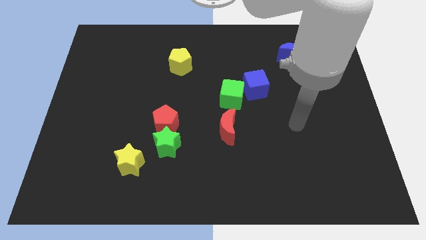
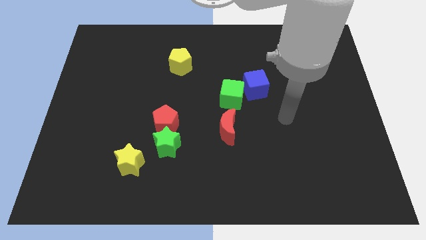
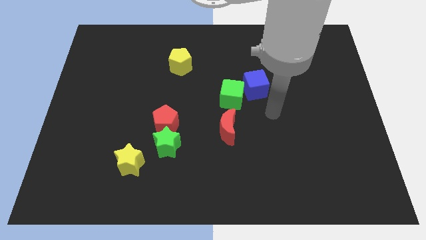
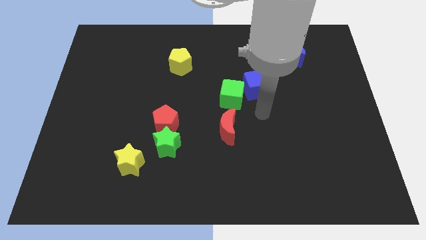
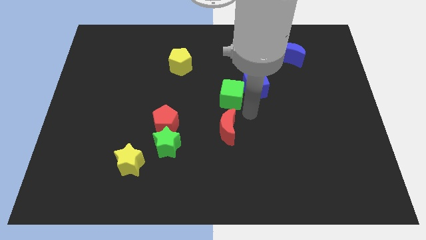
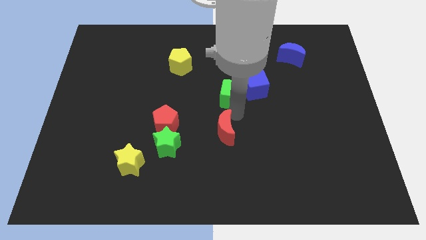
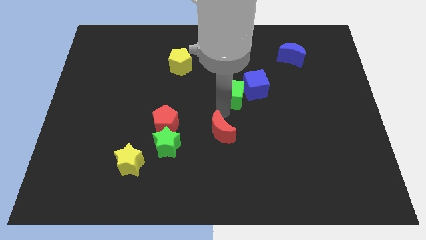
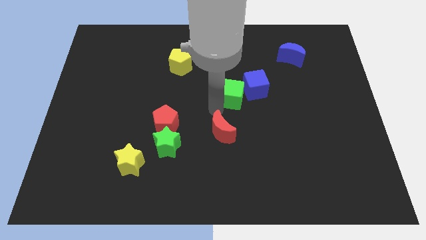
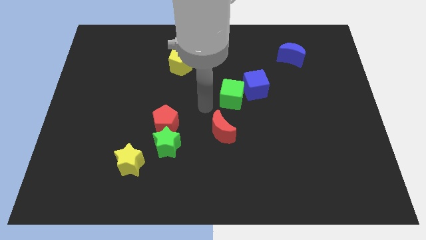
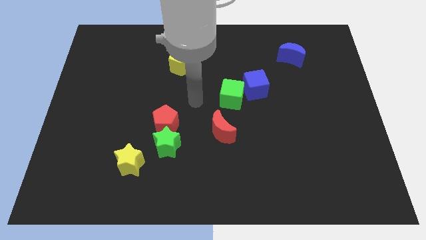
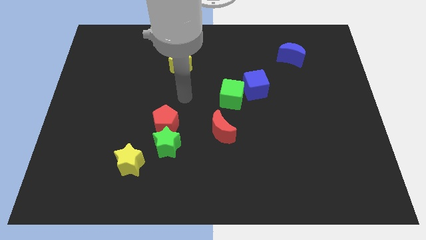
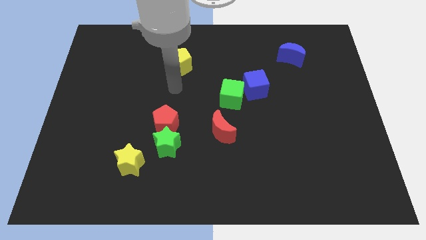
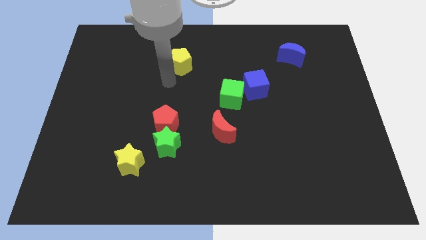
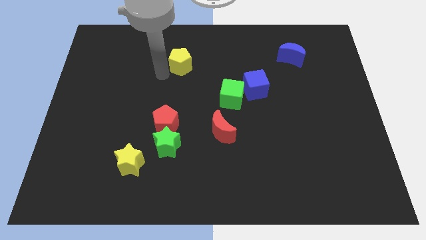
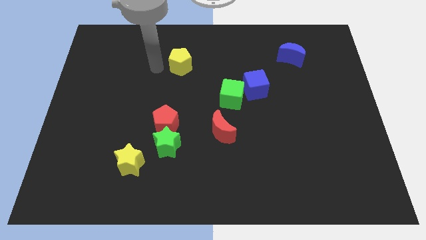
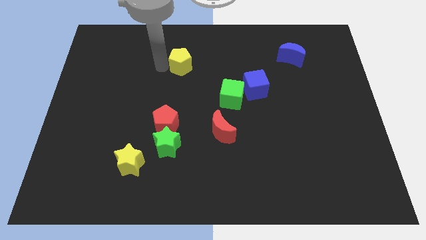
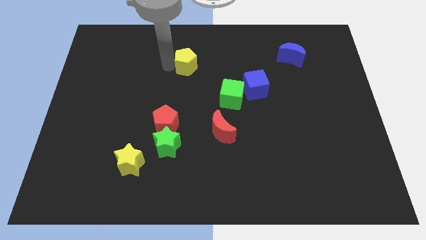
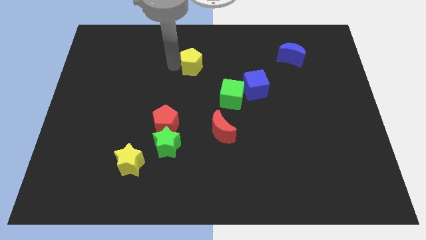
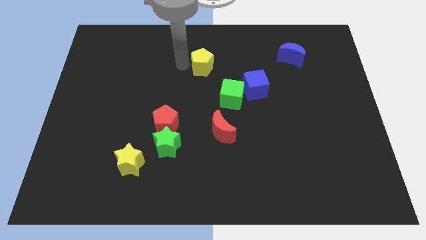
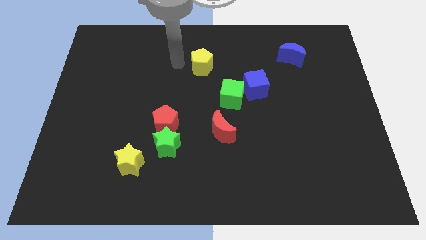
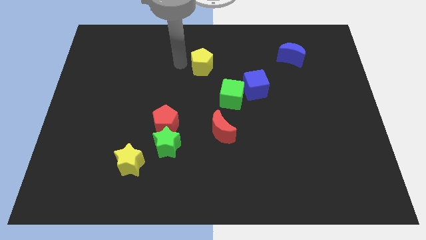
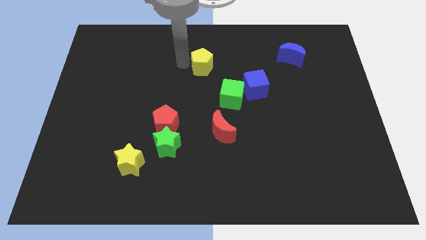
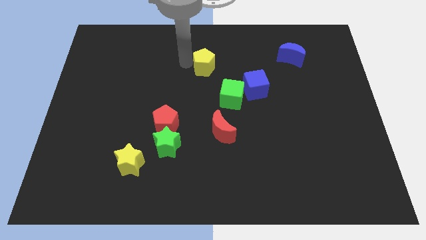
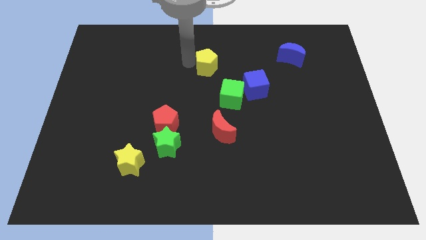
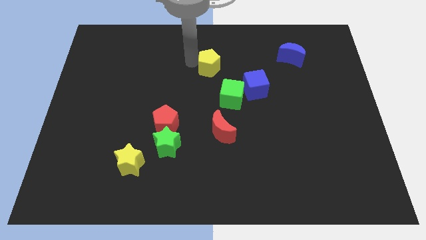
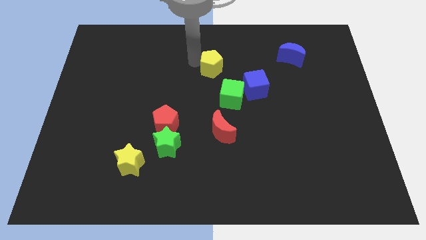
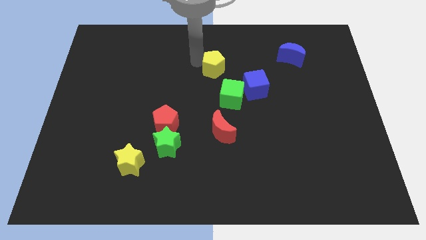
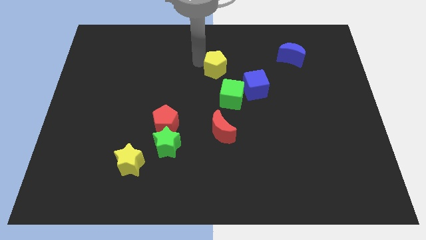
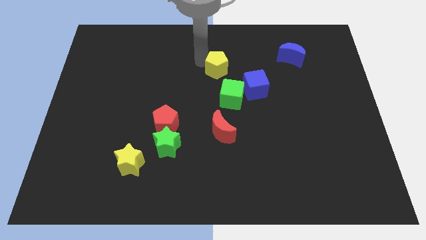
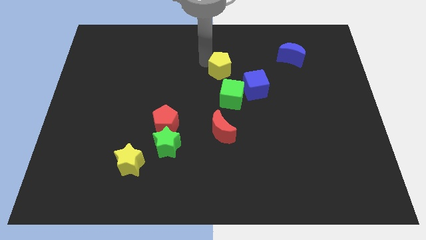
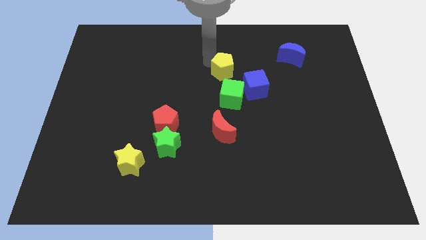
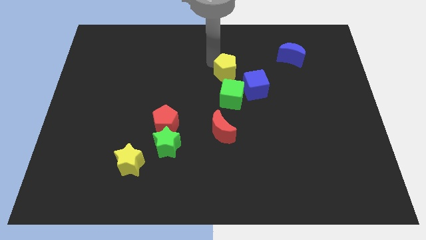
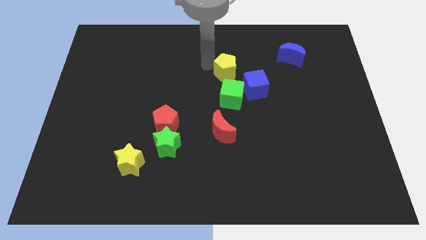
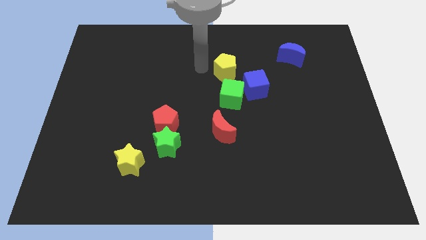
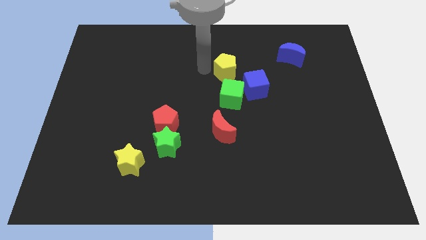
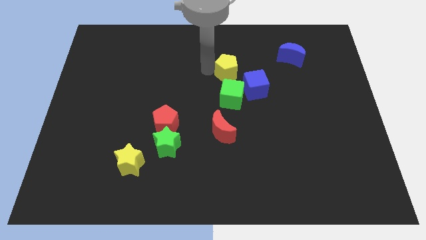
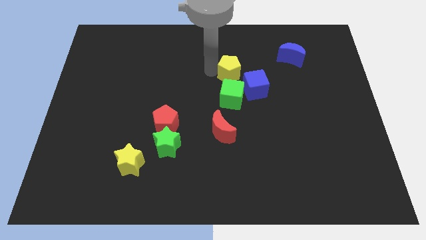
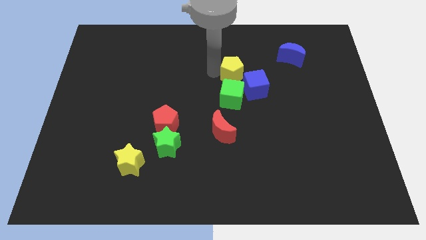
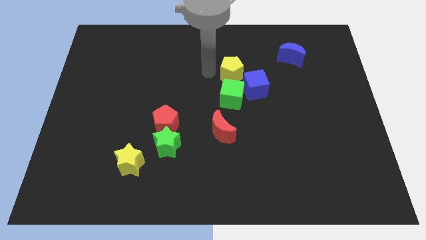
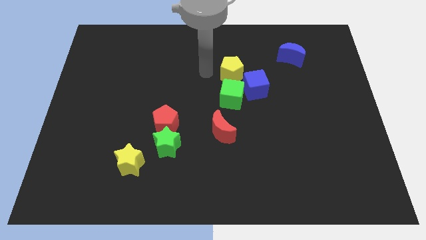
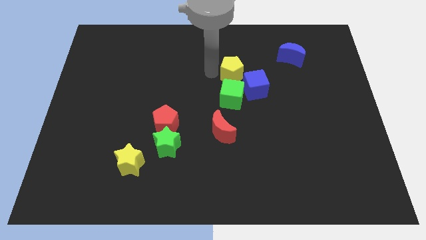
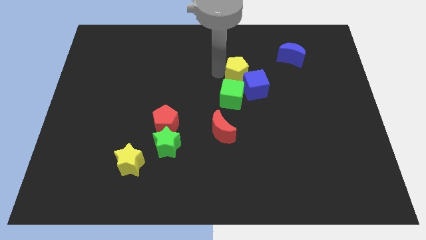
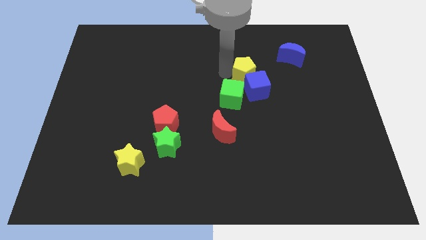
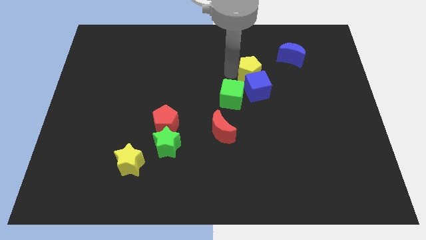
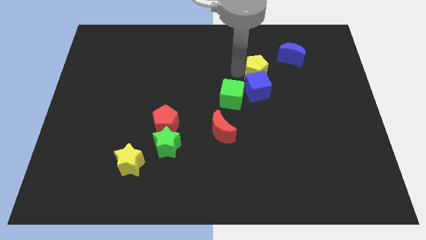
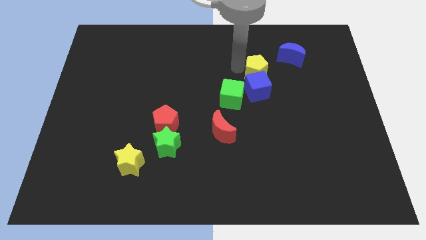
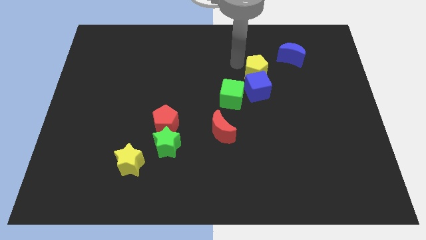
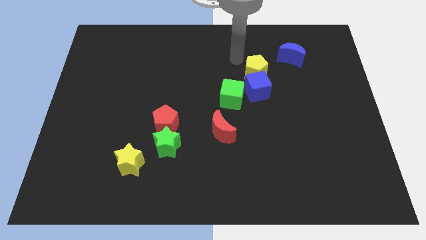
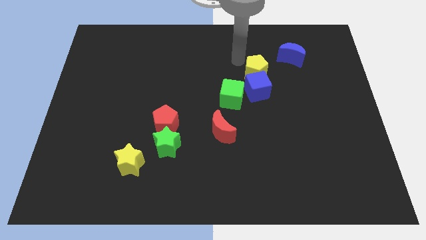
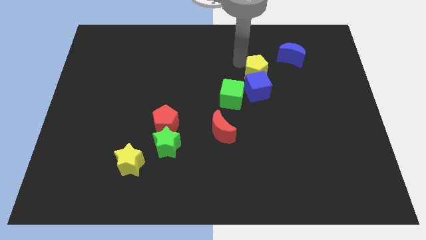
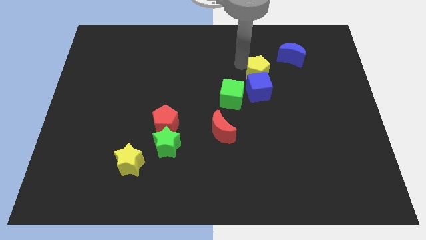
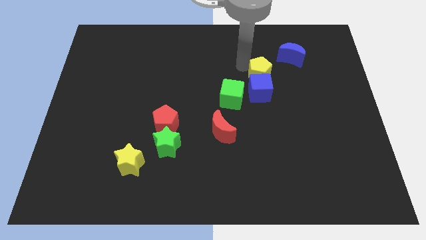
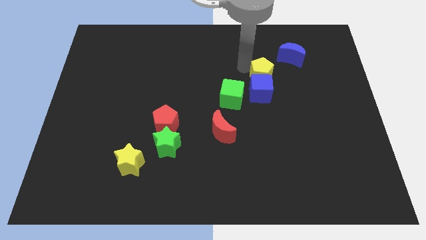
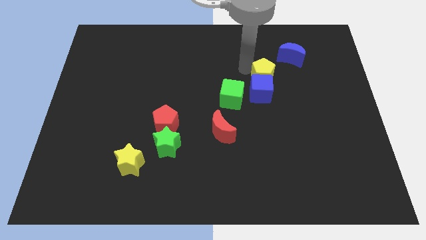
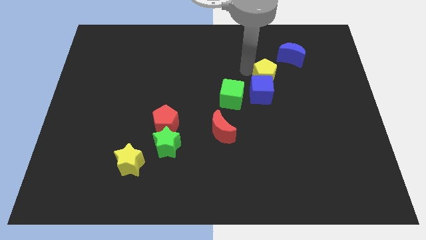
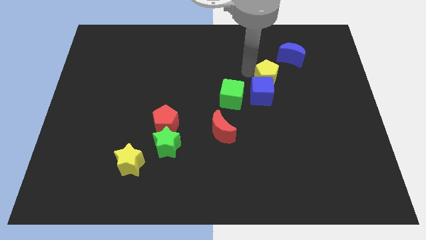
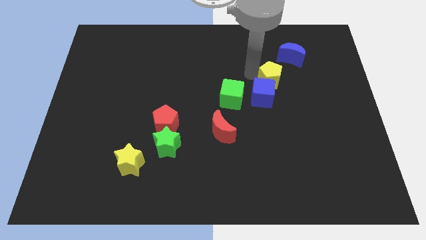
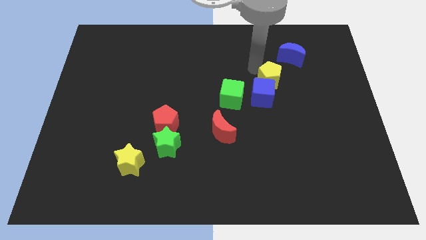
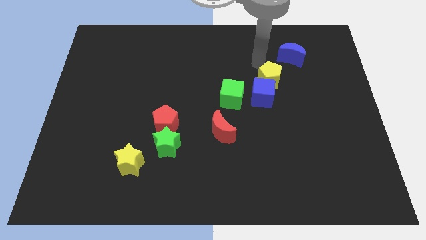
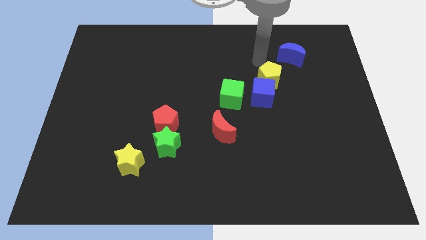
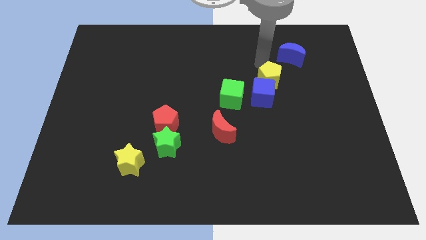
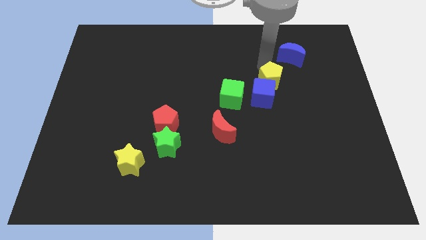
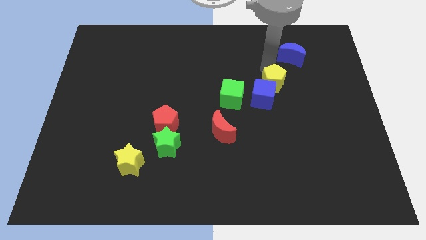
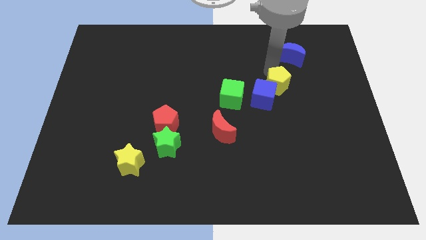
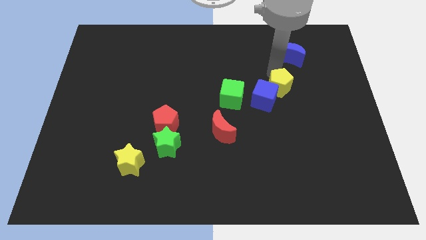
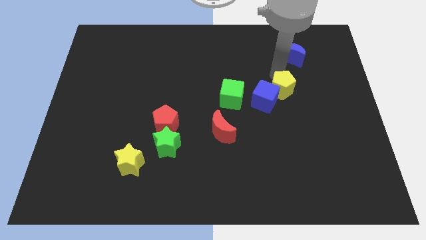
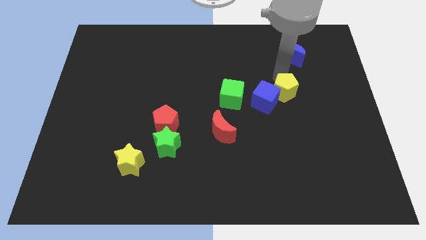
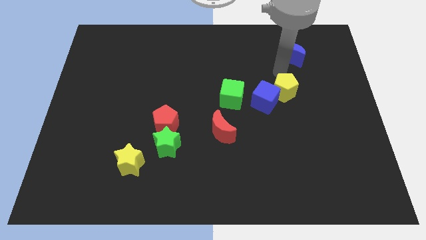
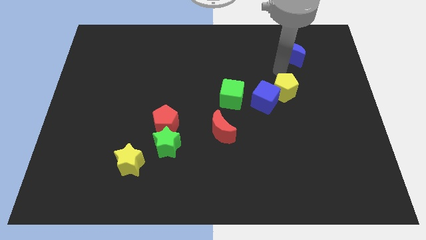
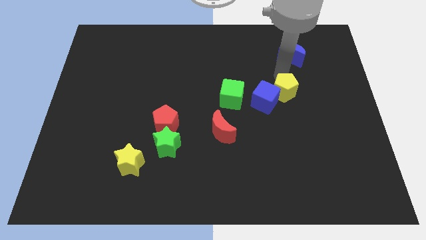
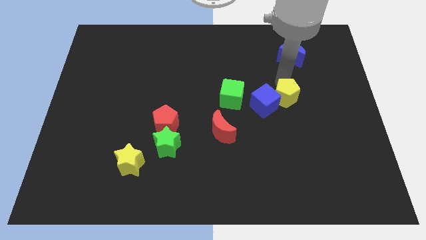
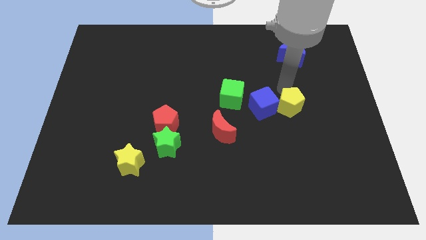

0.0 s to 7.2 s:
put the yellow pentagon to the bottom right side of the blue cube
